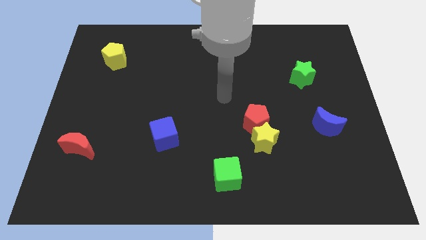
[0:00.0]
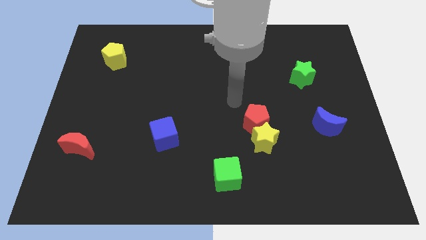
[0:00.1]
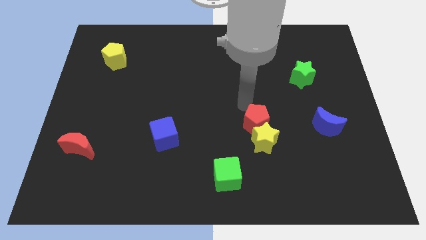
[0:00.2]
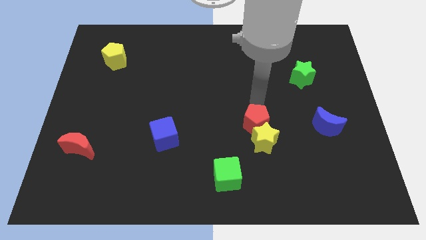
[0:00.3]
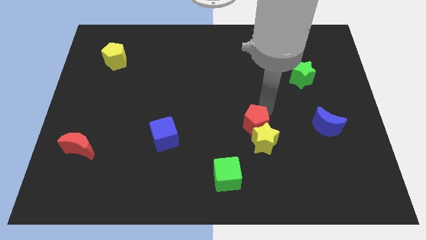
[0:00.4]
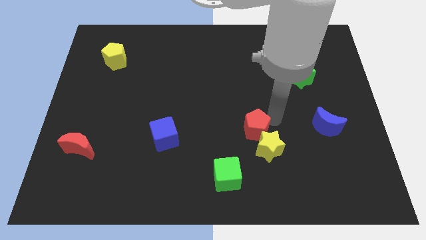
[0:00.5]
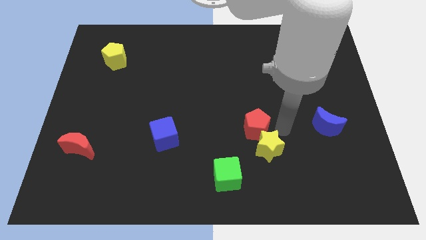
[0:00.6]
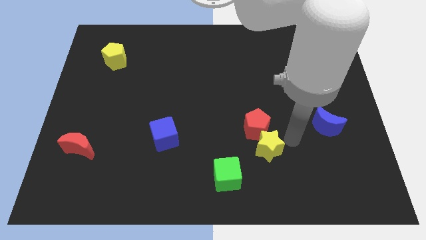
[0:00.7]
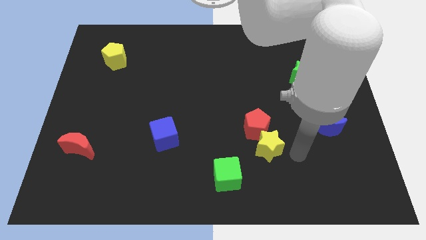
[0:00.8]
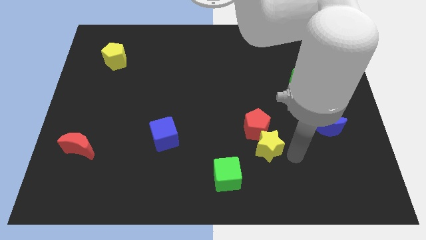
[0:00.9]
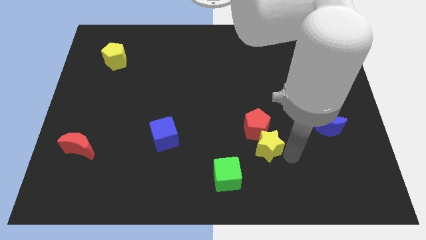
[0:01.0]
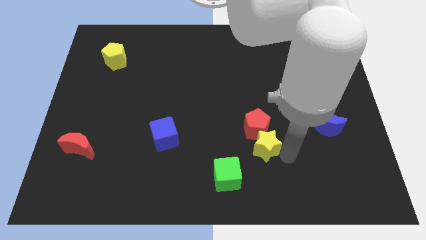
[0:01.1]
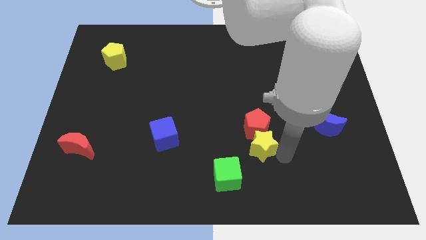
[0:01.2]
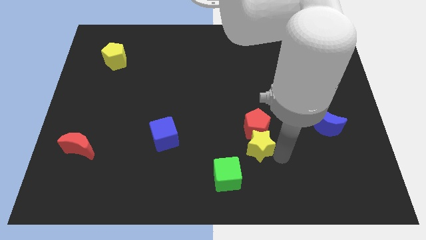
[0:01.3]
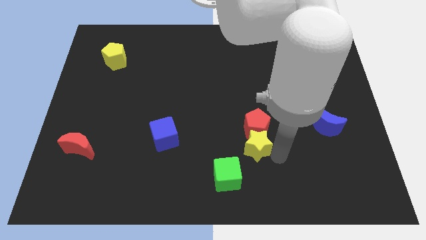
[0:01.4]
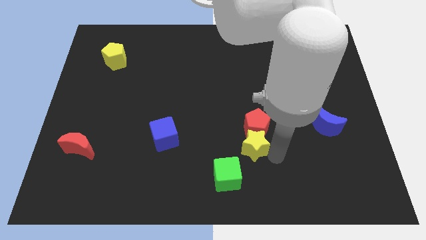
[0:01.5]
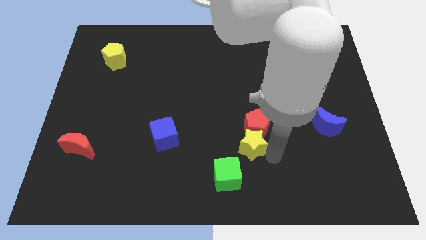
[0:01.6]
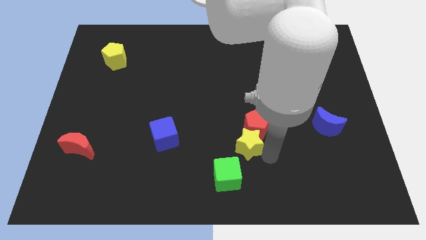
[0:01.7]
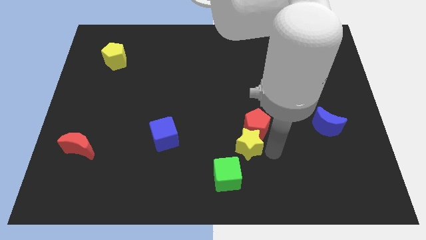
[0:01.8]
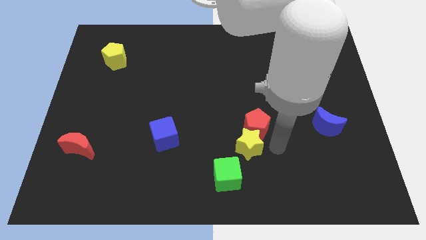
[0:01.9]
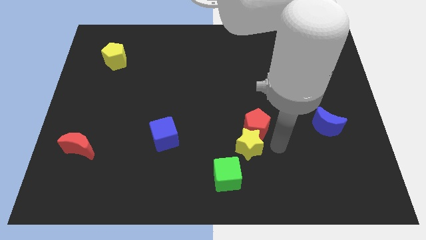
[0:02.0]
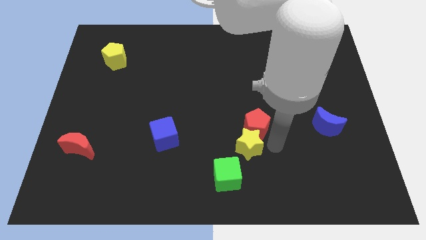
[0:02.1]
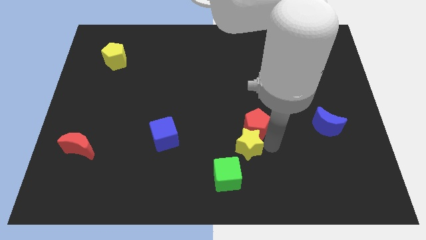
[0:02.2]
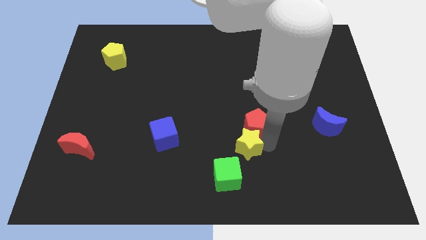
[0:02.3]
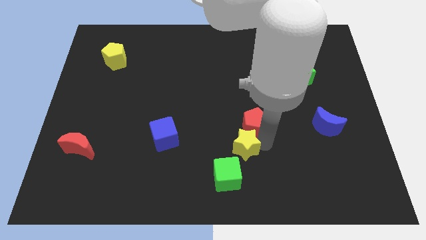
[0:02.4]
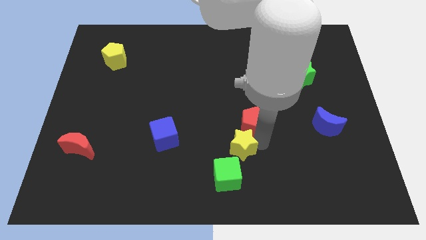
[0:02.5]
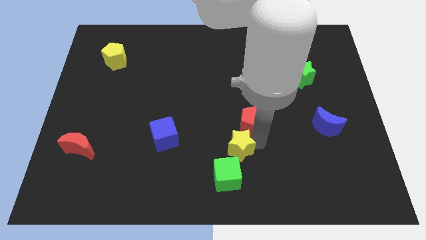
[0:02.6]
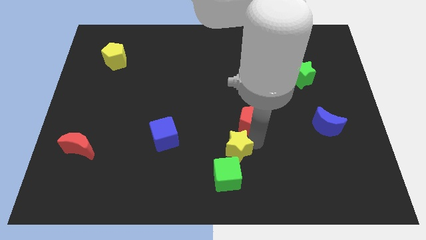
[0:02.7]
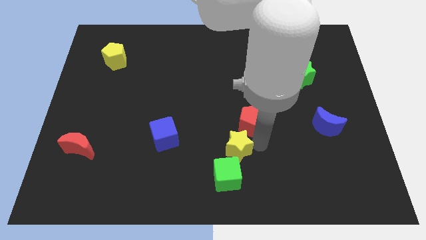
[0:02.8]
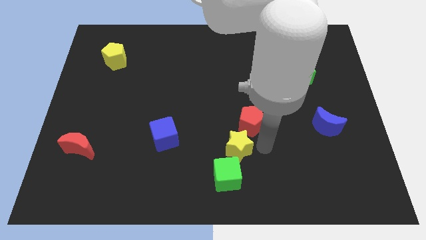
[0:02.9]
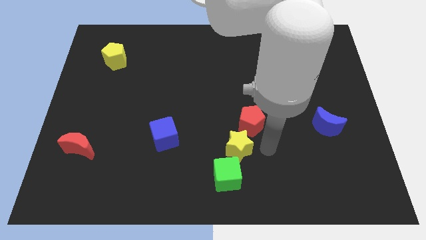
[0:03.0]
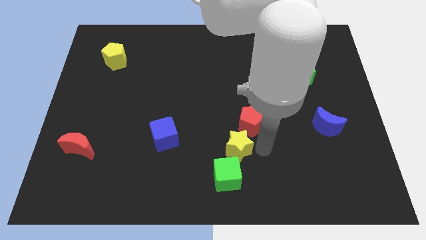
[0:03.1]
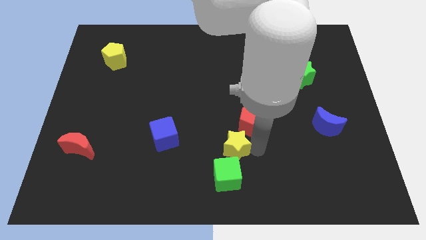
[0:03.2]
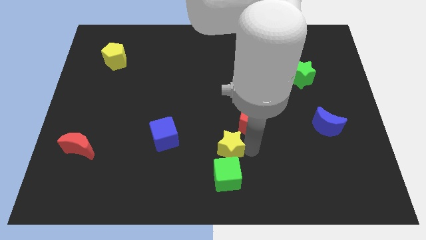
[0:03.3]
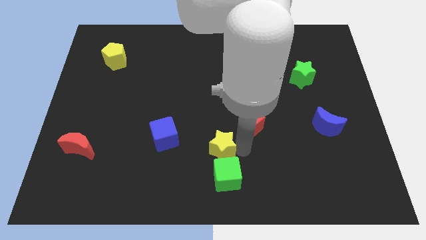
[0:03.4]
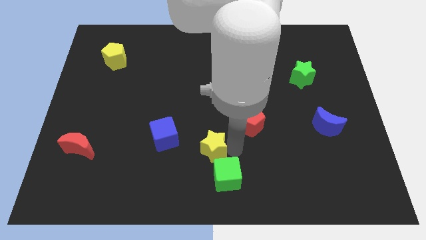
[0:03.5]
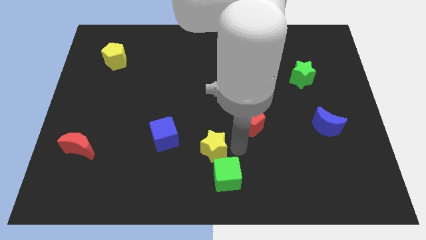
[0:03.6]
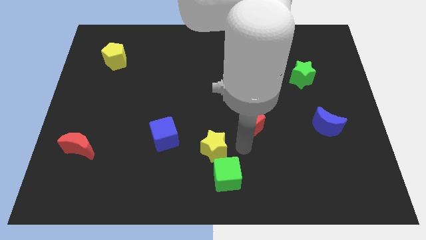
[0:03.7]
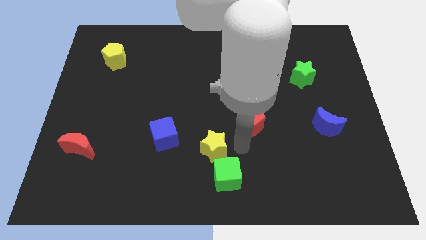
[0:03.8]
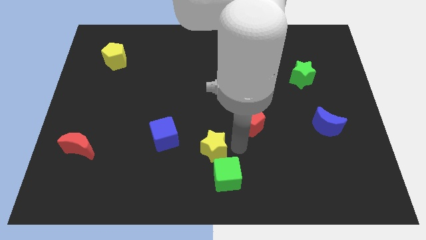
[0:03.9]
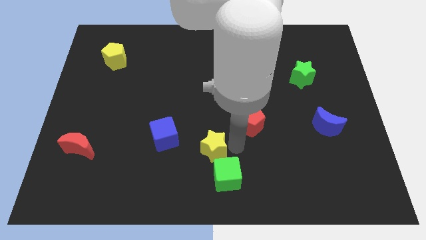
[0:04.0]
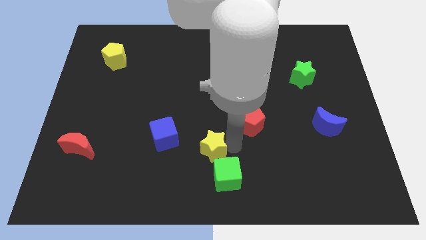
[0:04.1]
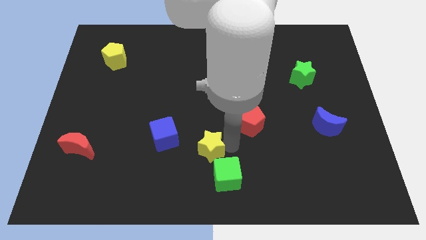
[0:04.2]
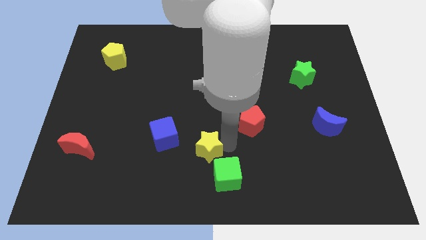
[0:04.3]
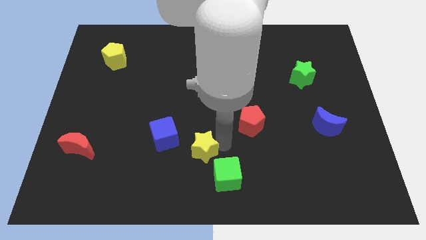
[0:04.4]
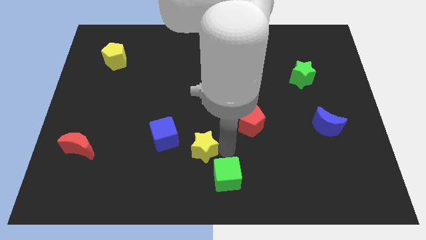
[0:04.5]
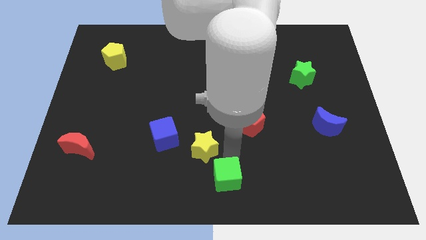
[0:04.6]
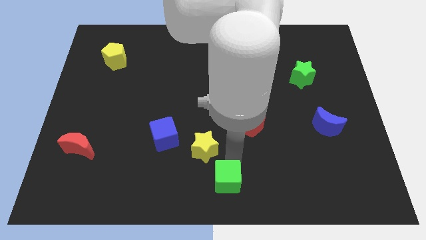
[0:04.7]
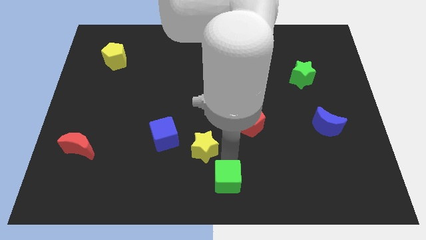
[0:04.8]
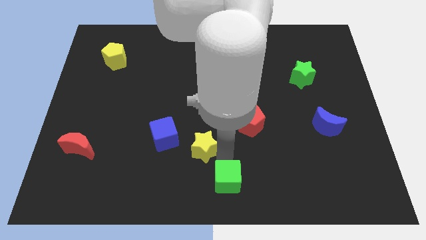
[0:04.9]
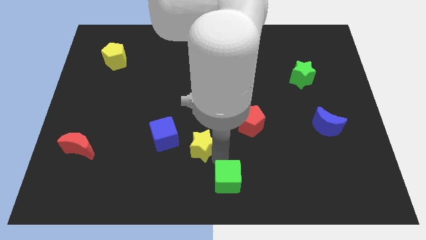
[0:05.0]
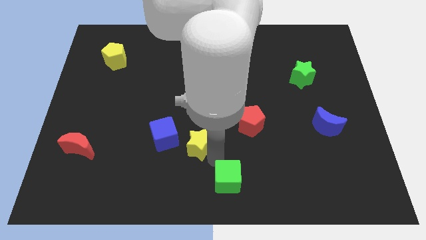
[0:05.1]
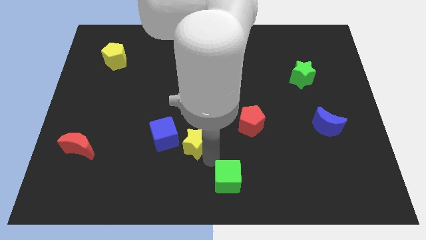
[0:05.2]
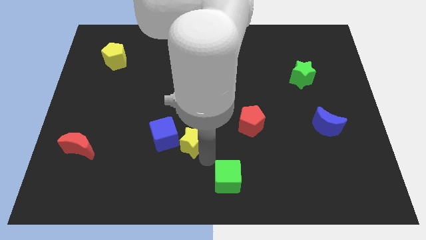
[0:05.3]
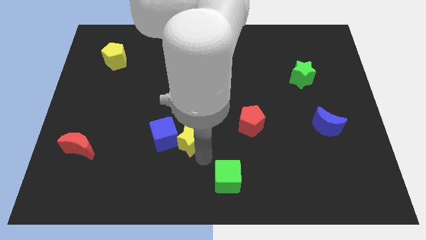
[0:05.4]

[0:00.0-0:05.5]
slide the yellow star towards the blue cube

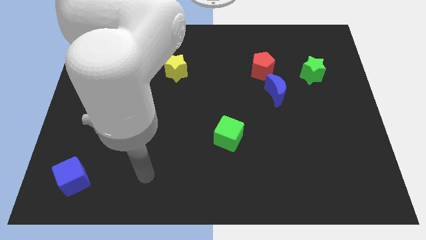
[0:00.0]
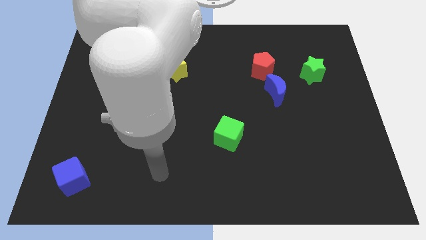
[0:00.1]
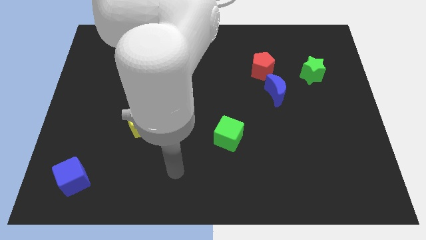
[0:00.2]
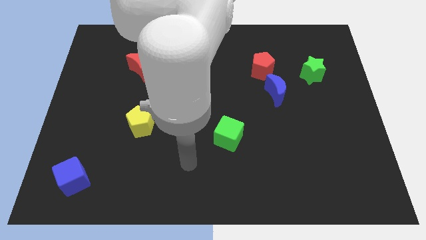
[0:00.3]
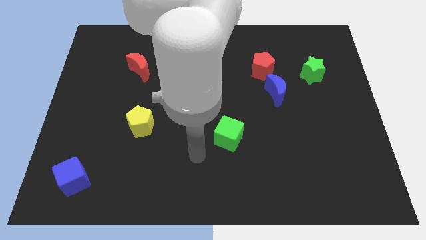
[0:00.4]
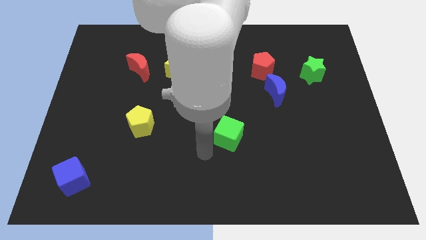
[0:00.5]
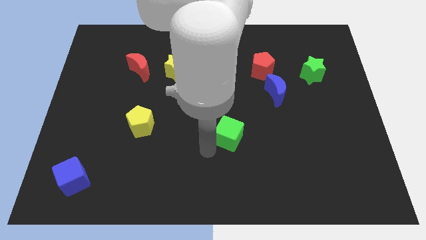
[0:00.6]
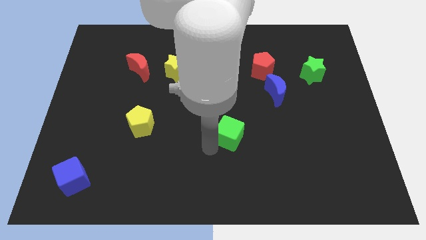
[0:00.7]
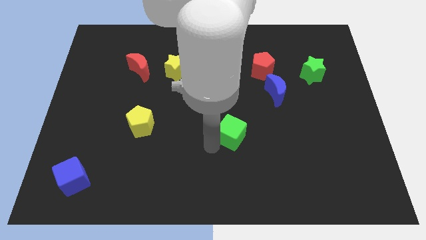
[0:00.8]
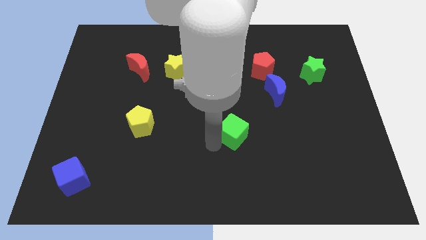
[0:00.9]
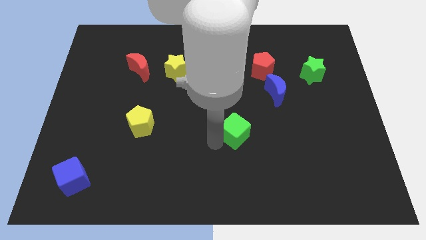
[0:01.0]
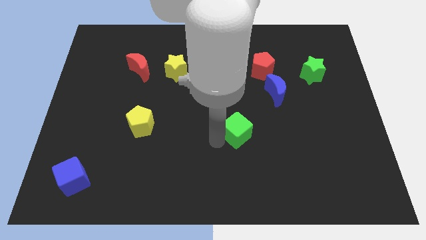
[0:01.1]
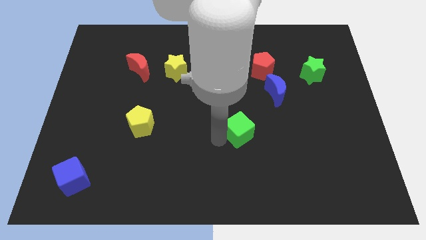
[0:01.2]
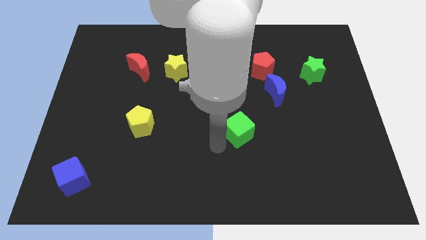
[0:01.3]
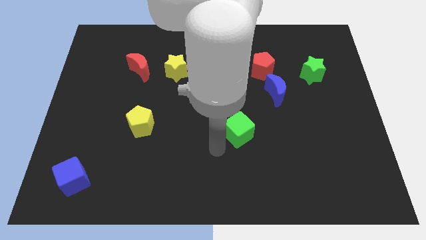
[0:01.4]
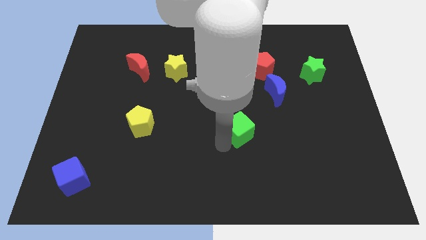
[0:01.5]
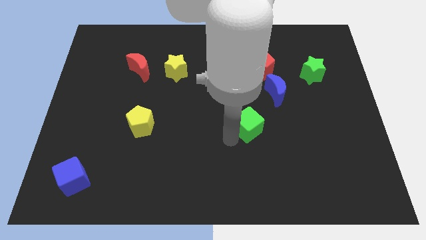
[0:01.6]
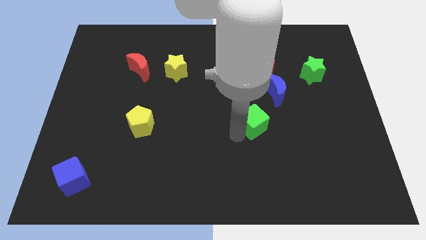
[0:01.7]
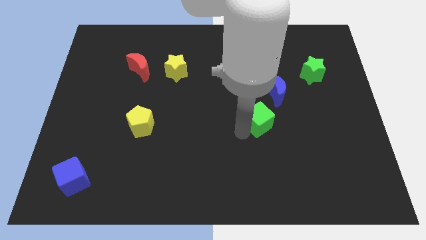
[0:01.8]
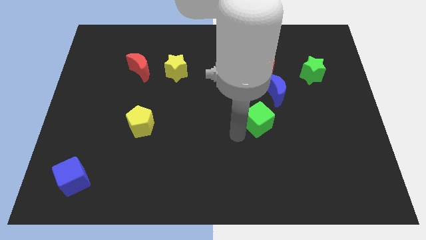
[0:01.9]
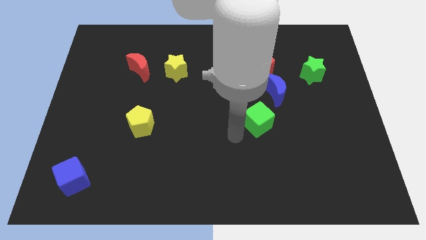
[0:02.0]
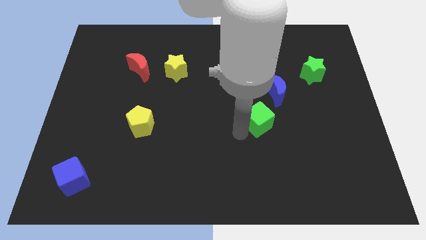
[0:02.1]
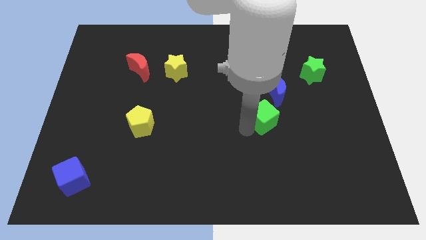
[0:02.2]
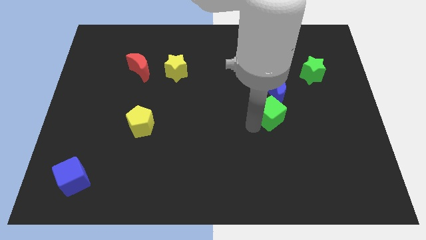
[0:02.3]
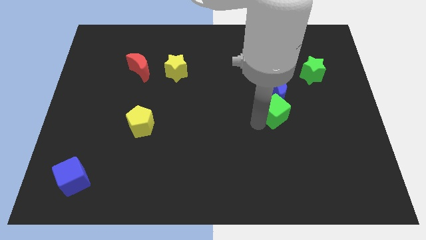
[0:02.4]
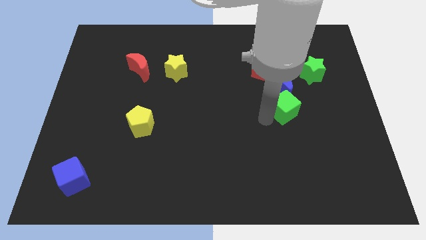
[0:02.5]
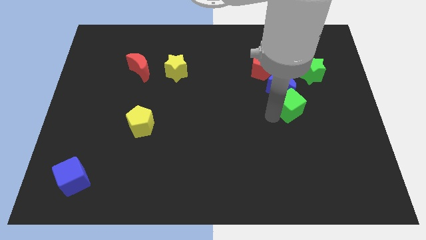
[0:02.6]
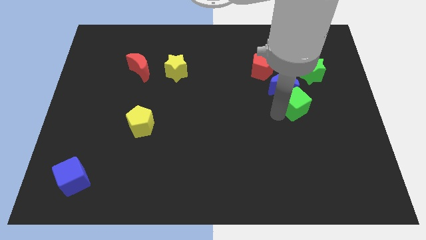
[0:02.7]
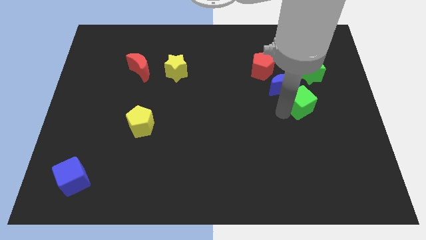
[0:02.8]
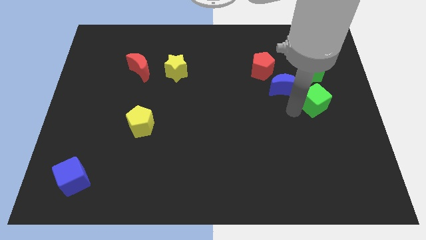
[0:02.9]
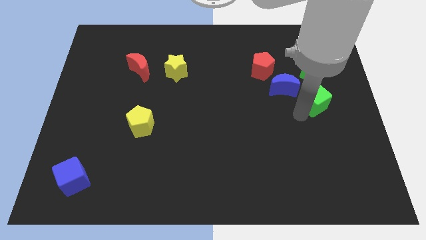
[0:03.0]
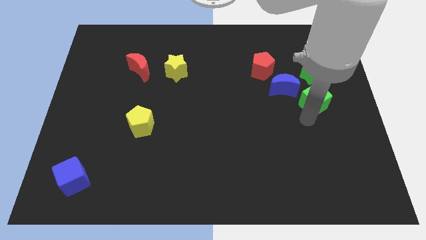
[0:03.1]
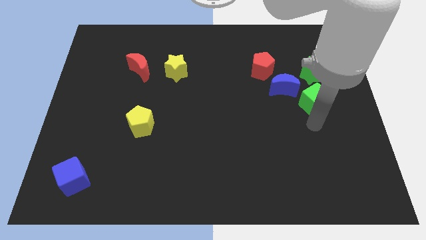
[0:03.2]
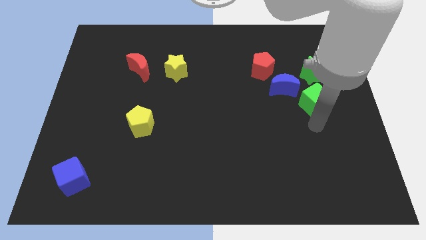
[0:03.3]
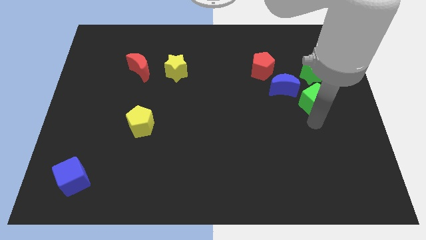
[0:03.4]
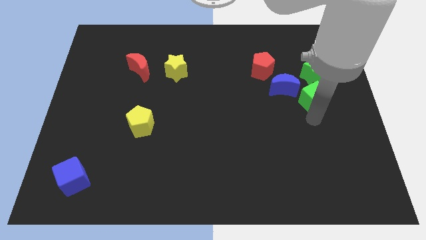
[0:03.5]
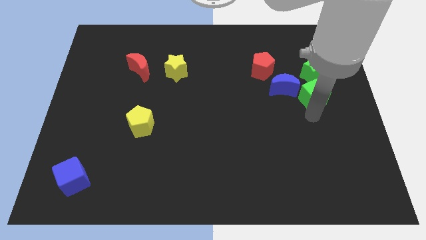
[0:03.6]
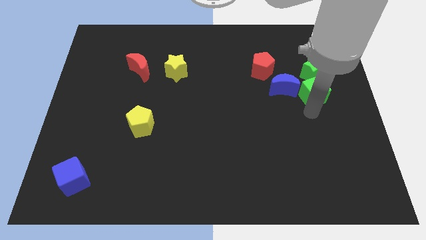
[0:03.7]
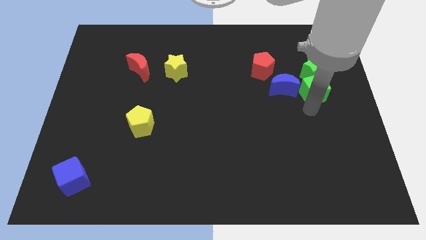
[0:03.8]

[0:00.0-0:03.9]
move the green cube to the green star
